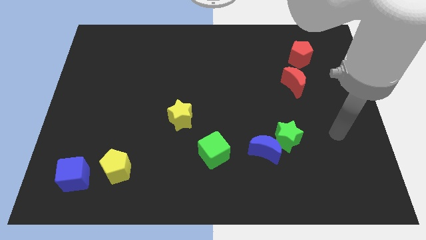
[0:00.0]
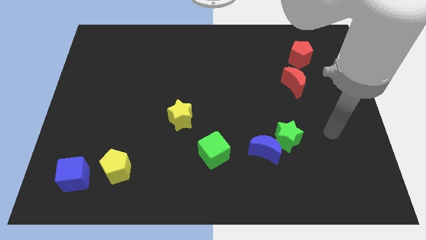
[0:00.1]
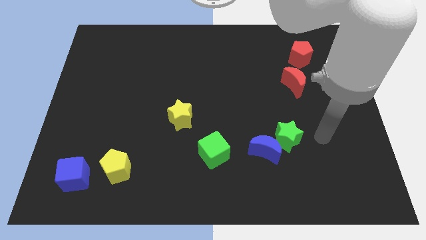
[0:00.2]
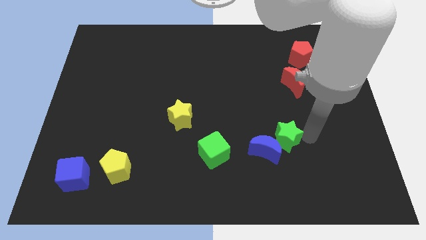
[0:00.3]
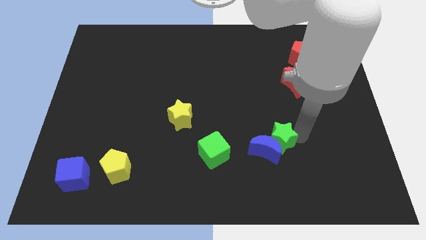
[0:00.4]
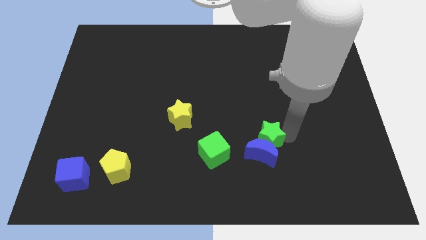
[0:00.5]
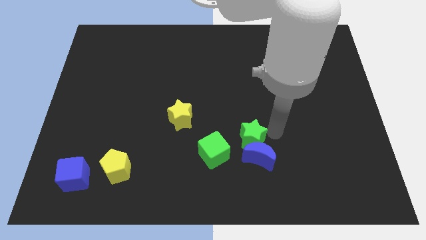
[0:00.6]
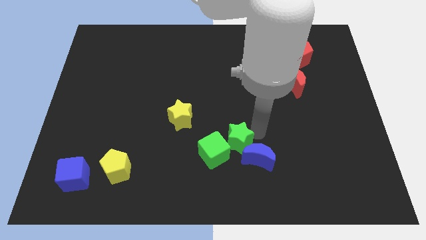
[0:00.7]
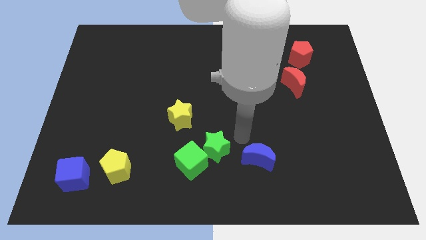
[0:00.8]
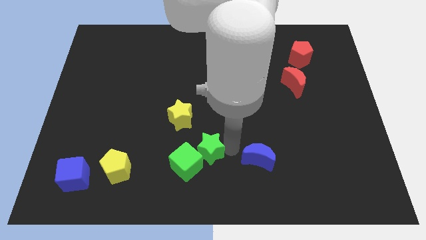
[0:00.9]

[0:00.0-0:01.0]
move the blue moon away from the green star

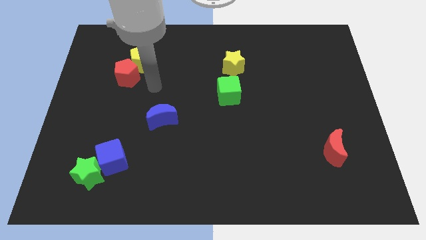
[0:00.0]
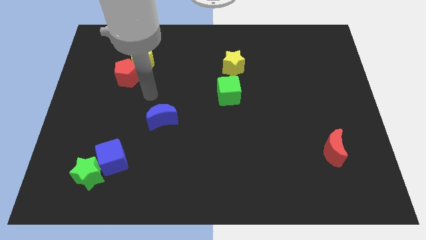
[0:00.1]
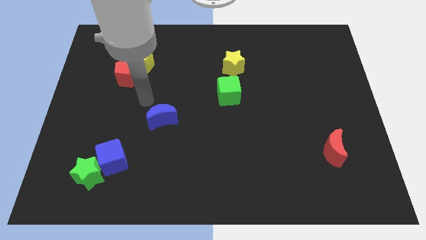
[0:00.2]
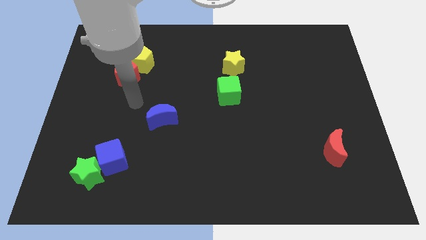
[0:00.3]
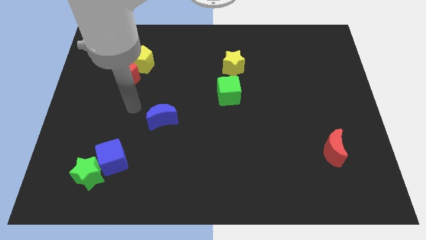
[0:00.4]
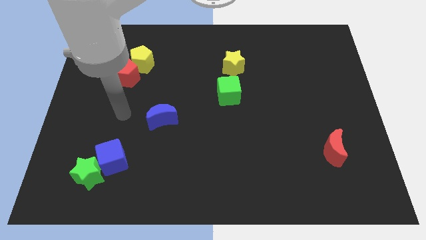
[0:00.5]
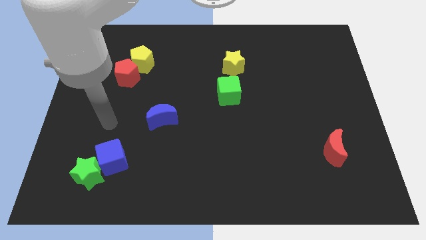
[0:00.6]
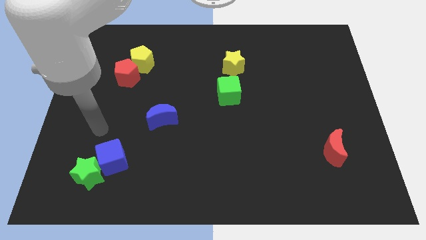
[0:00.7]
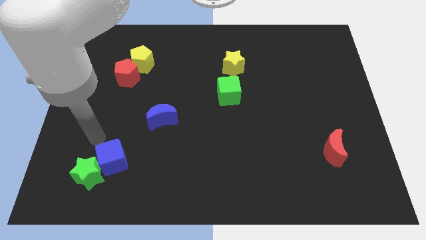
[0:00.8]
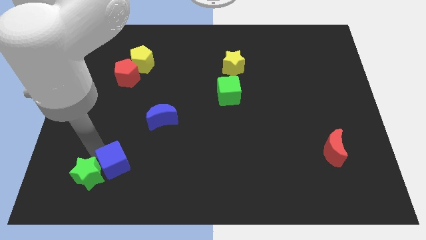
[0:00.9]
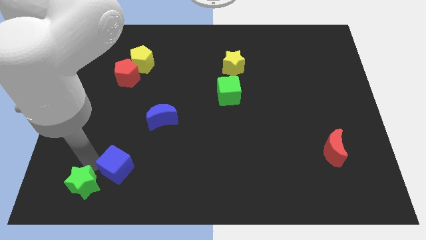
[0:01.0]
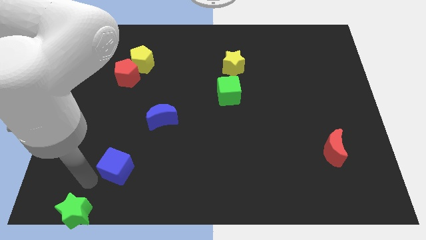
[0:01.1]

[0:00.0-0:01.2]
separate the blue cube from the green star

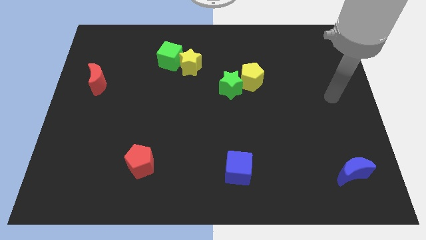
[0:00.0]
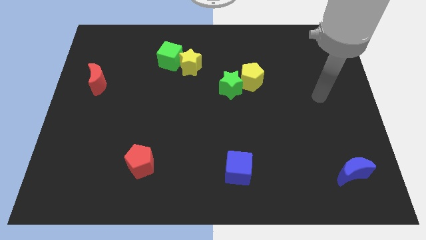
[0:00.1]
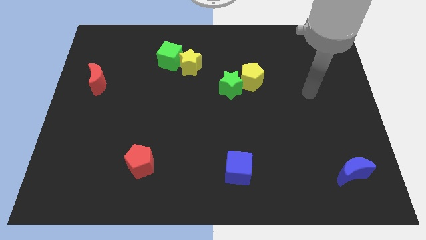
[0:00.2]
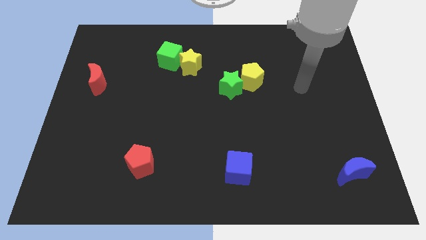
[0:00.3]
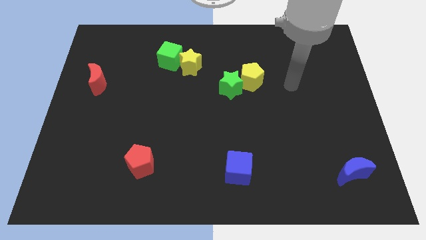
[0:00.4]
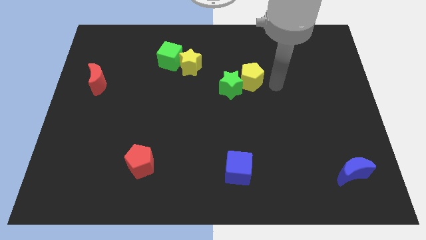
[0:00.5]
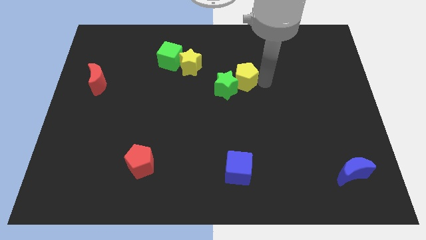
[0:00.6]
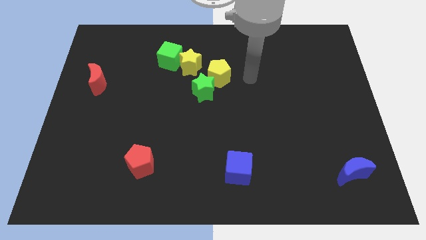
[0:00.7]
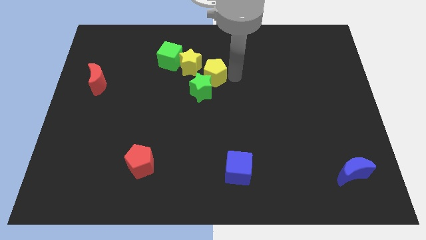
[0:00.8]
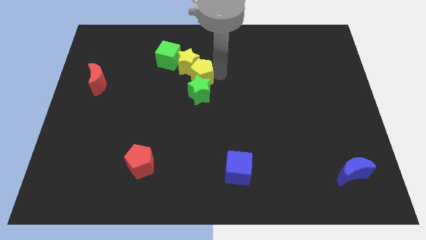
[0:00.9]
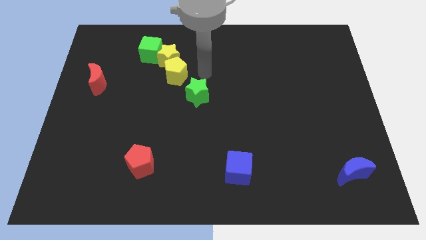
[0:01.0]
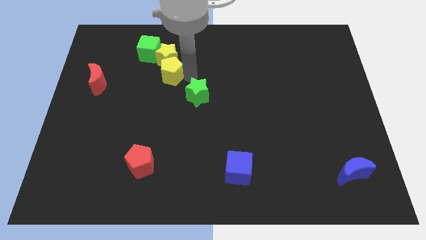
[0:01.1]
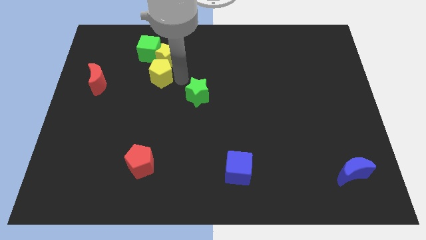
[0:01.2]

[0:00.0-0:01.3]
move the green star away from the yellow pentagon

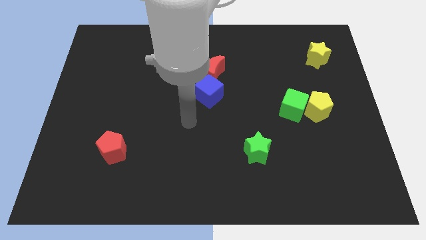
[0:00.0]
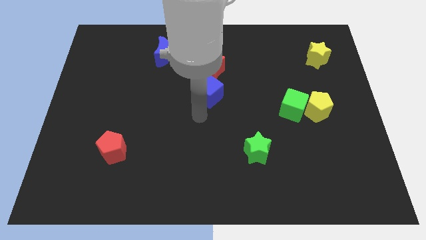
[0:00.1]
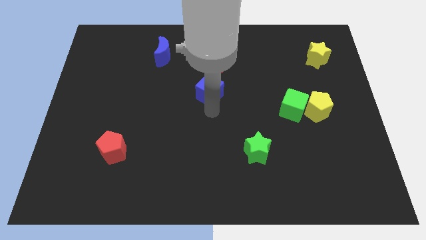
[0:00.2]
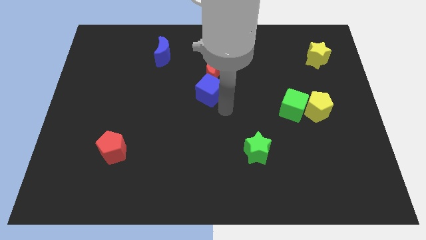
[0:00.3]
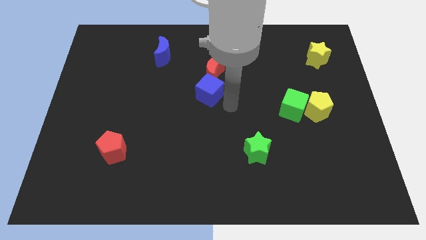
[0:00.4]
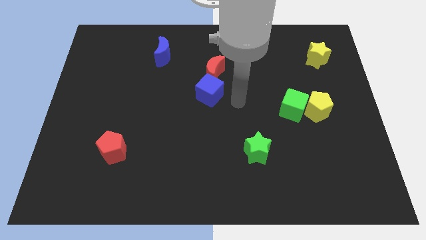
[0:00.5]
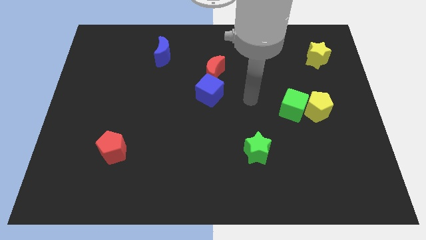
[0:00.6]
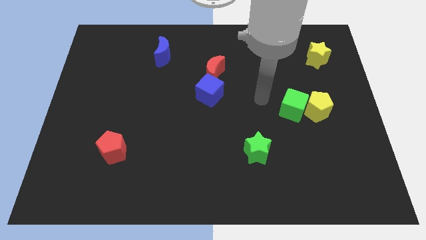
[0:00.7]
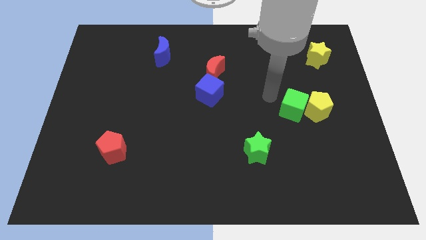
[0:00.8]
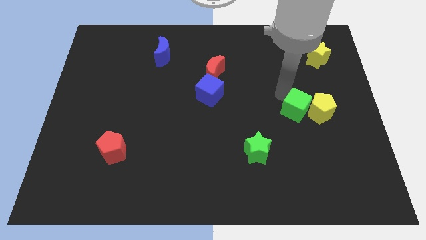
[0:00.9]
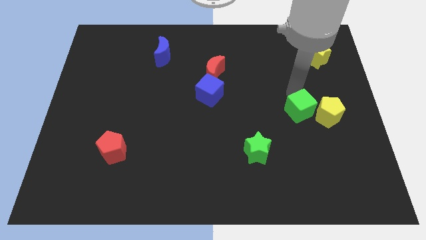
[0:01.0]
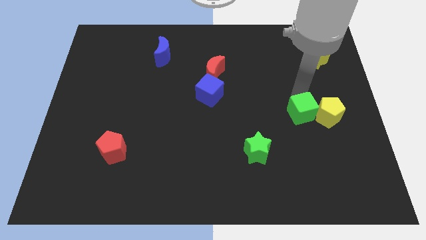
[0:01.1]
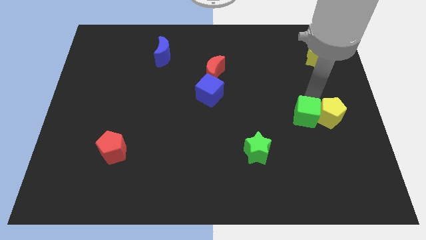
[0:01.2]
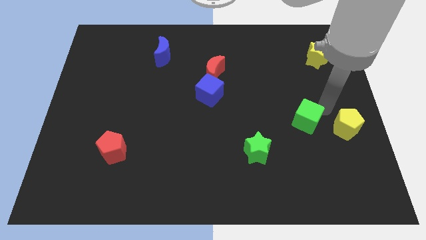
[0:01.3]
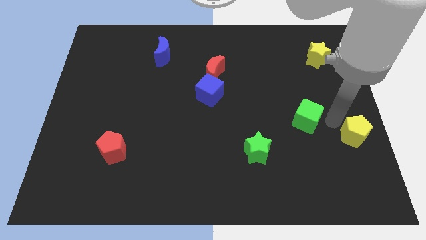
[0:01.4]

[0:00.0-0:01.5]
pull the green cube apart from the yellow pentagon

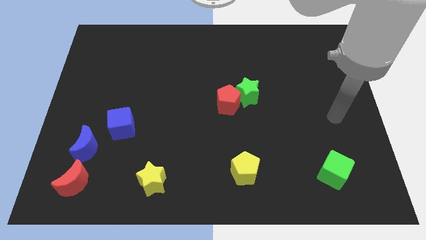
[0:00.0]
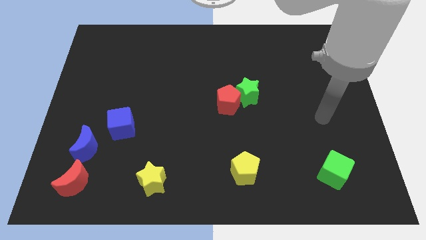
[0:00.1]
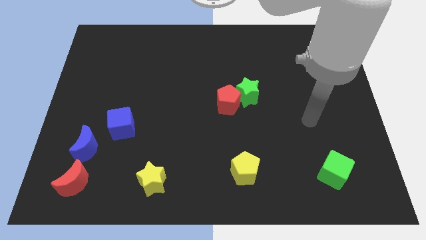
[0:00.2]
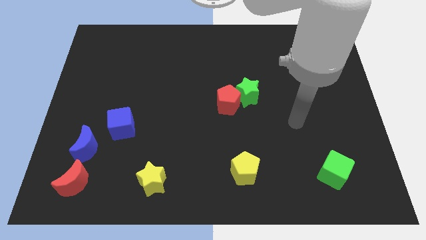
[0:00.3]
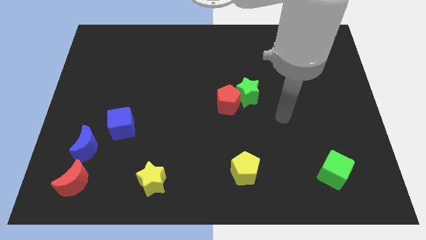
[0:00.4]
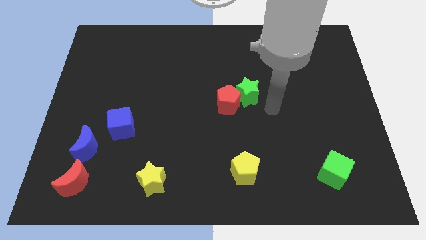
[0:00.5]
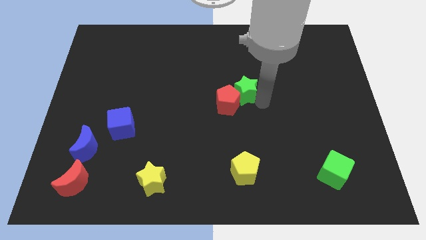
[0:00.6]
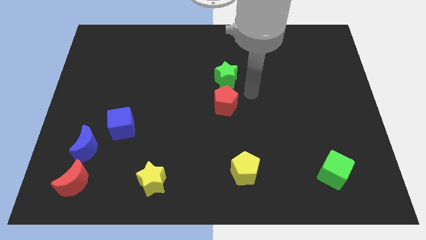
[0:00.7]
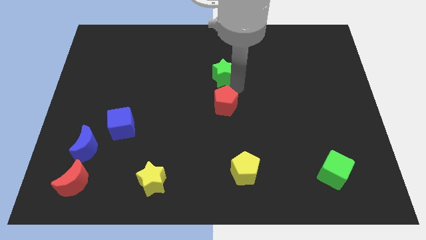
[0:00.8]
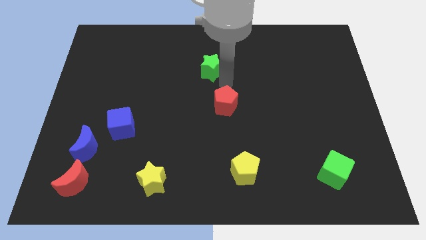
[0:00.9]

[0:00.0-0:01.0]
separate the red pentagon from the green star

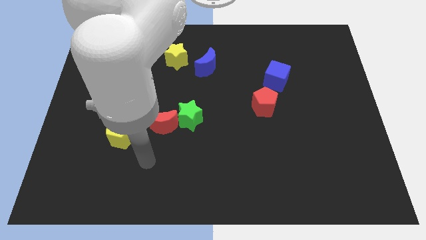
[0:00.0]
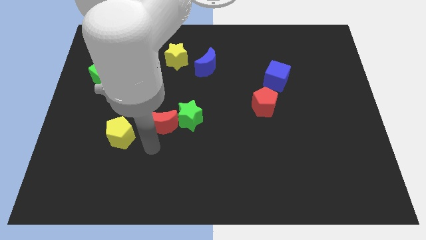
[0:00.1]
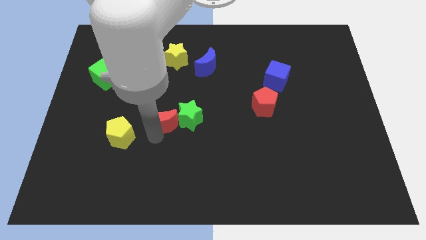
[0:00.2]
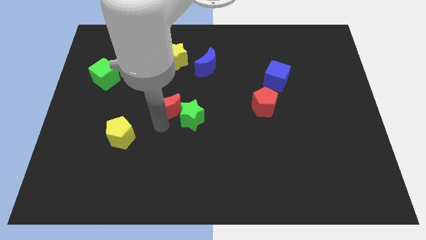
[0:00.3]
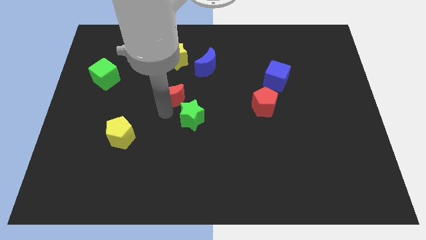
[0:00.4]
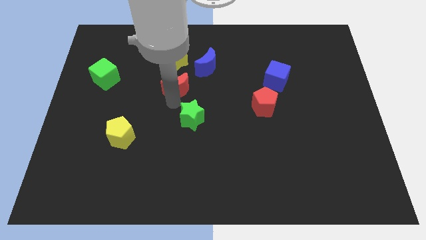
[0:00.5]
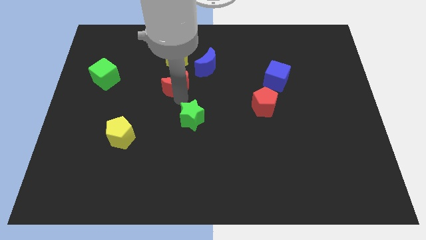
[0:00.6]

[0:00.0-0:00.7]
separate the green star from the red moon

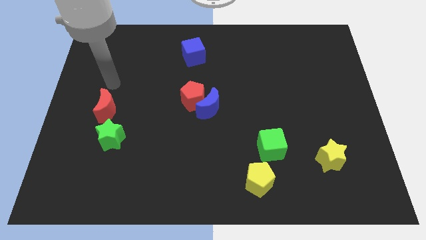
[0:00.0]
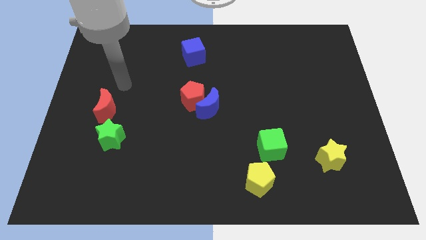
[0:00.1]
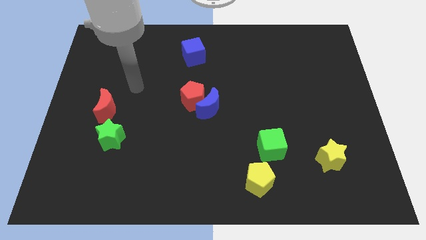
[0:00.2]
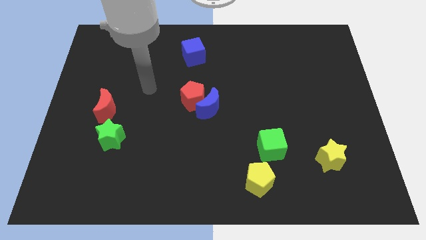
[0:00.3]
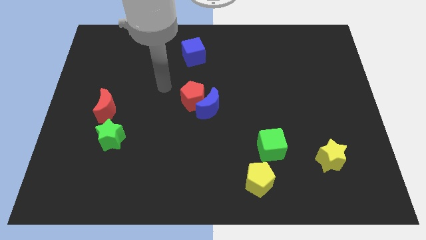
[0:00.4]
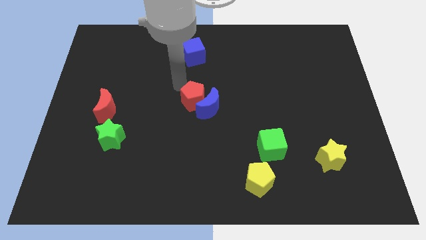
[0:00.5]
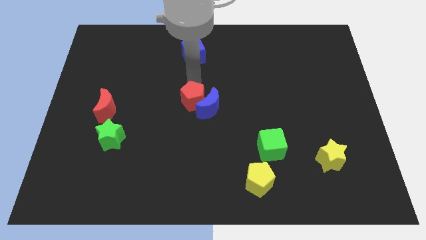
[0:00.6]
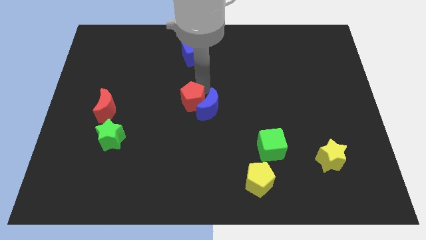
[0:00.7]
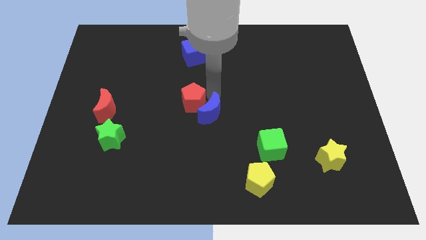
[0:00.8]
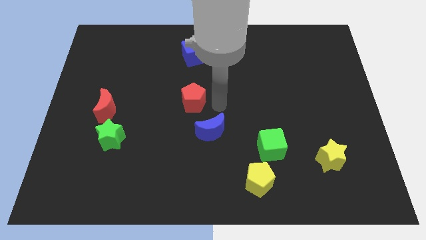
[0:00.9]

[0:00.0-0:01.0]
pull the red pentagon apart from the blue moon

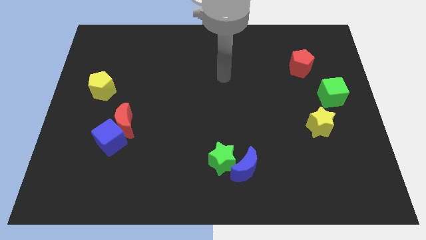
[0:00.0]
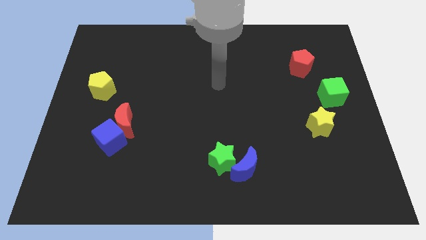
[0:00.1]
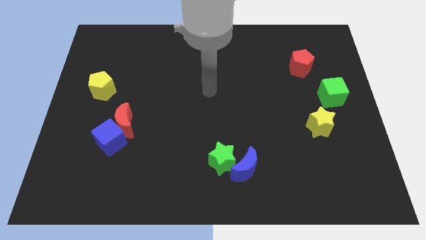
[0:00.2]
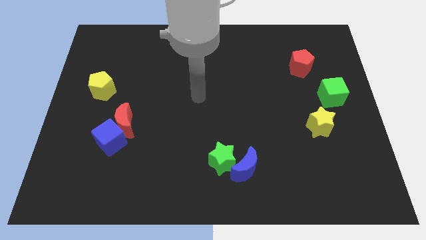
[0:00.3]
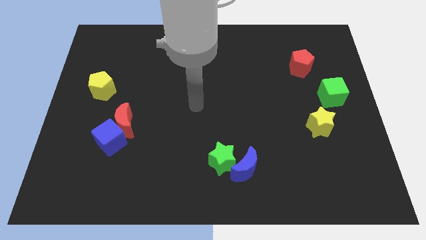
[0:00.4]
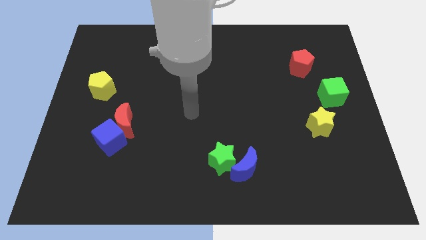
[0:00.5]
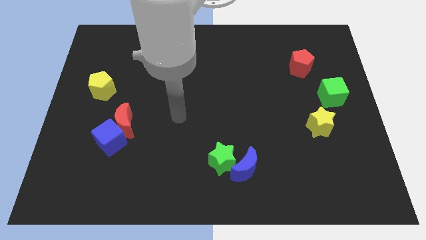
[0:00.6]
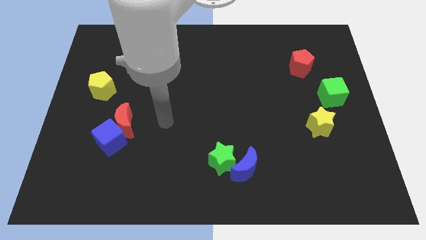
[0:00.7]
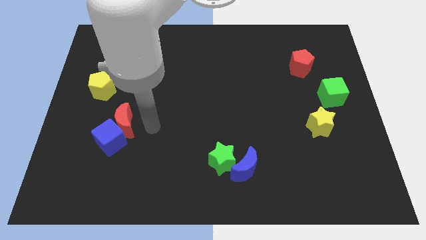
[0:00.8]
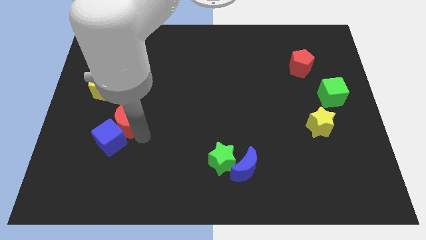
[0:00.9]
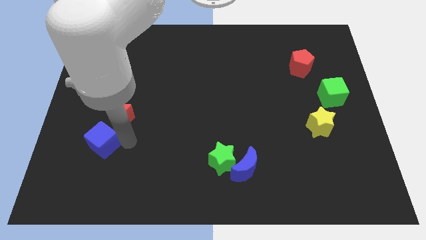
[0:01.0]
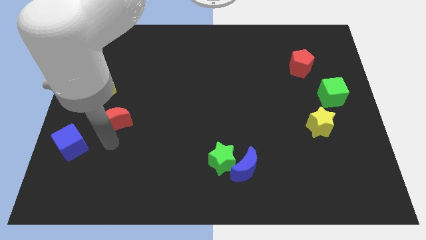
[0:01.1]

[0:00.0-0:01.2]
separate the red moon from the blue cube

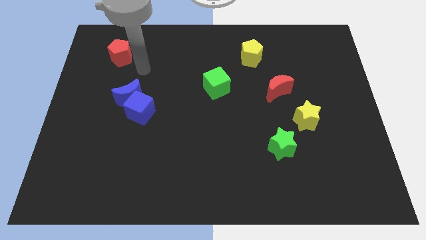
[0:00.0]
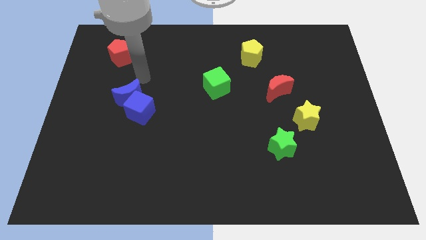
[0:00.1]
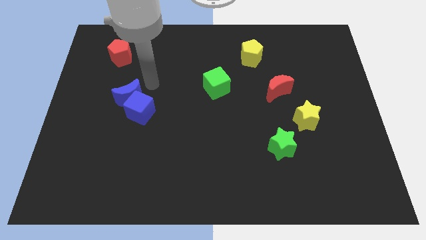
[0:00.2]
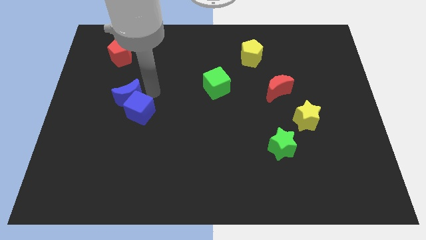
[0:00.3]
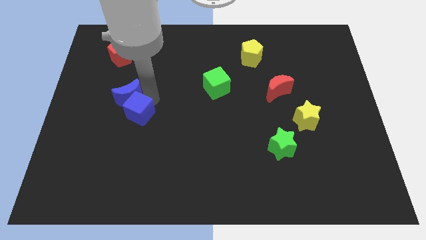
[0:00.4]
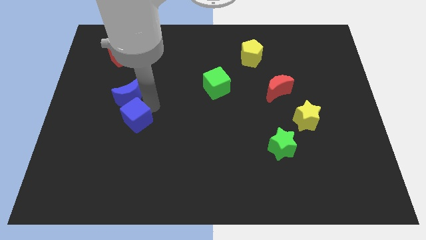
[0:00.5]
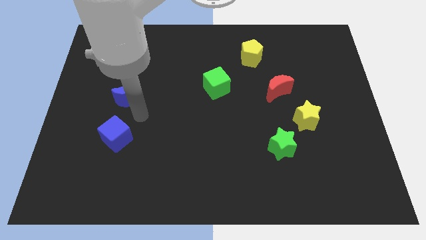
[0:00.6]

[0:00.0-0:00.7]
pull the blue moon apart from the blue cube
